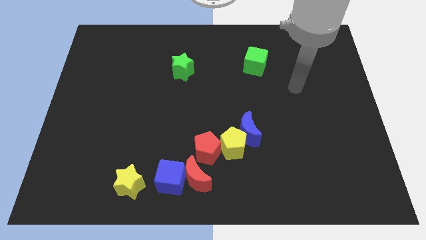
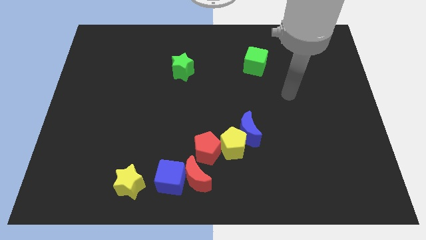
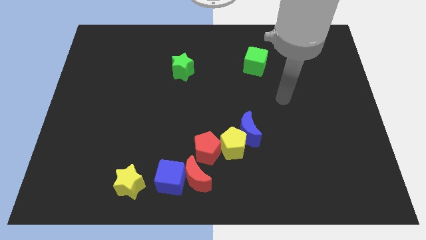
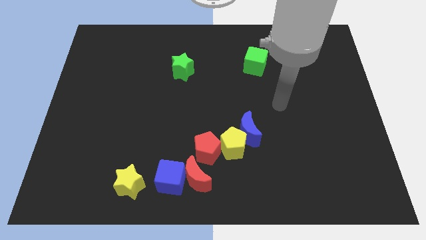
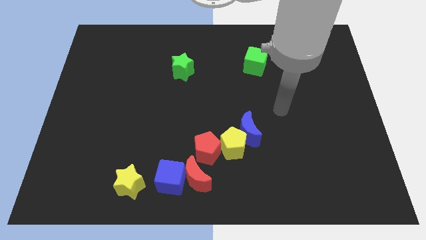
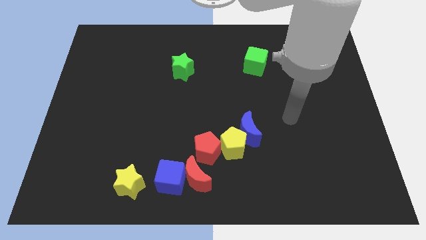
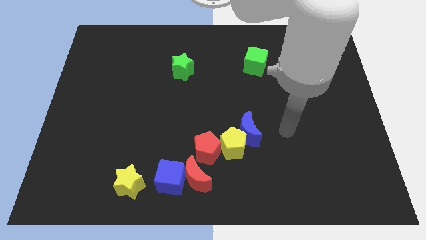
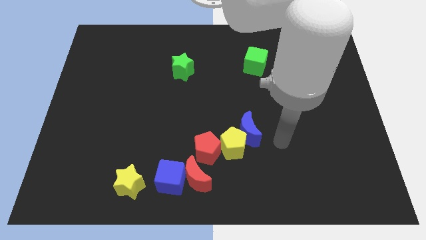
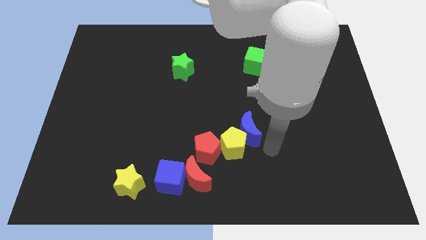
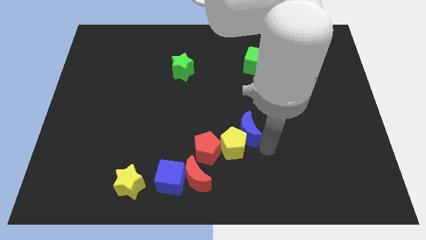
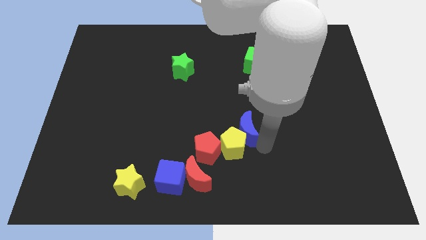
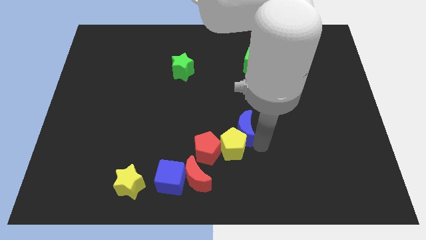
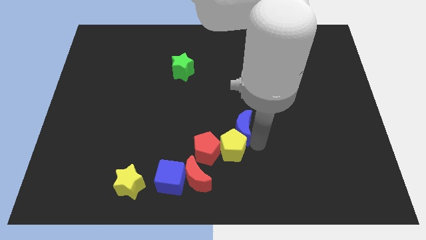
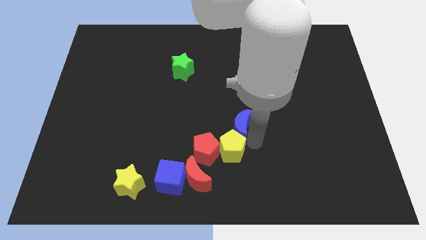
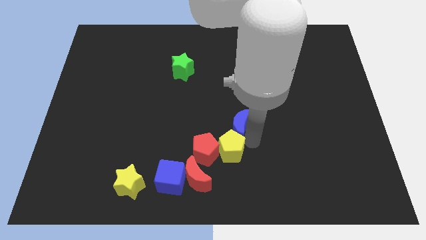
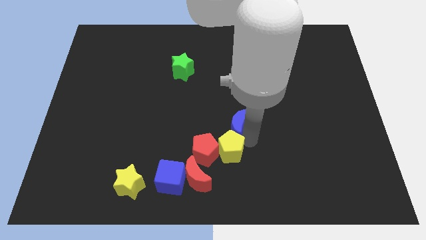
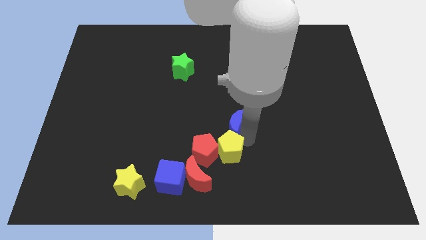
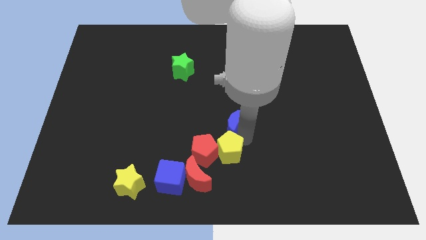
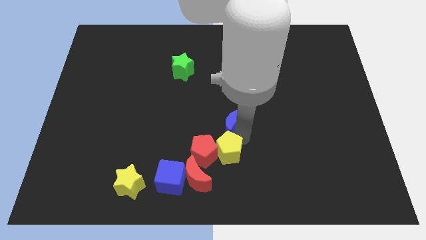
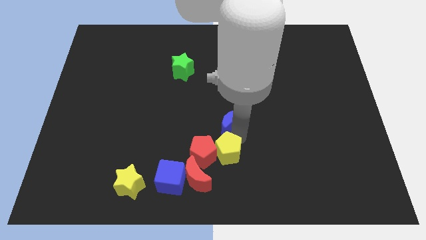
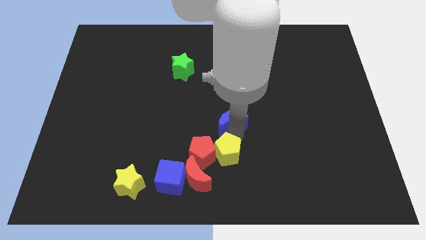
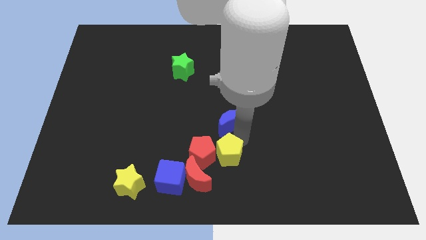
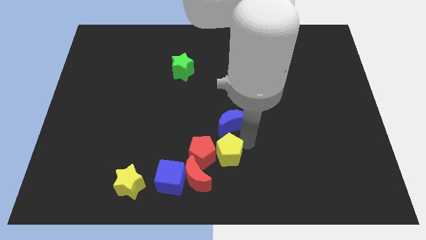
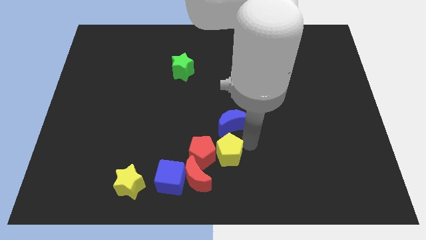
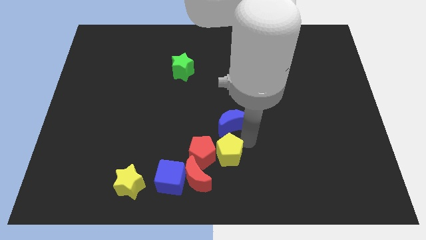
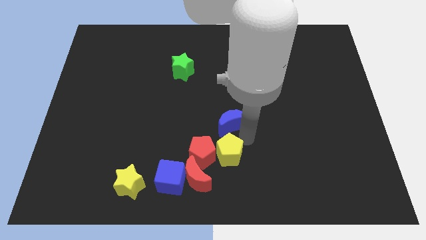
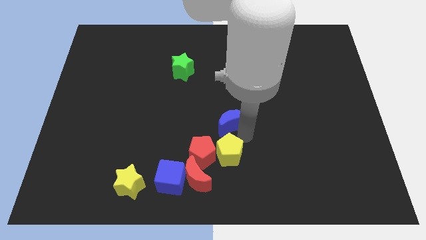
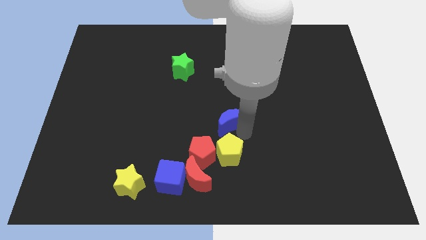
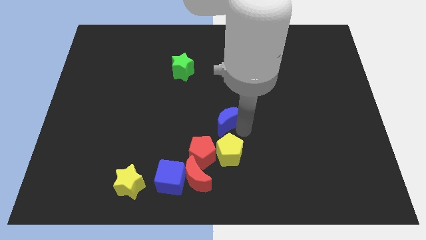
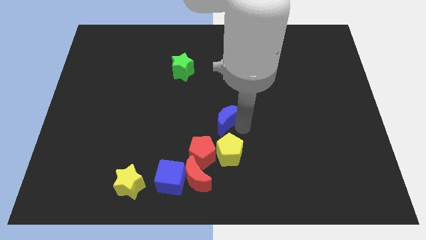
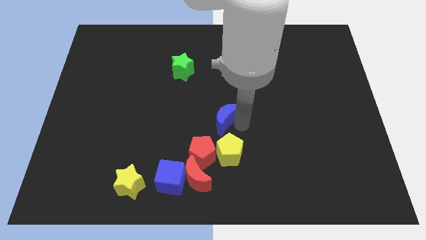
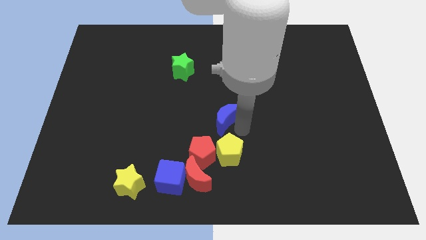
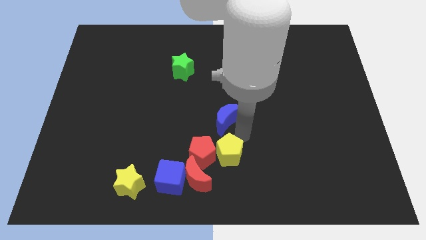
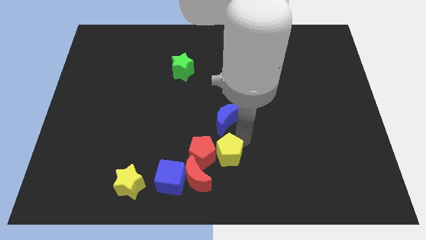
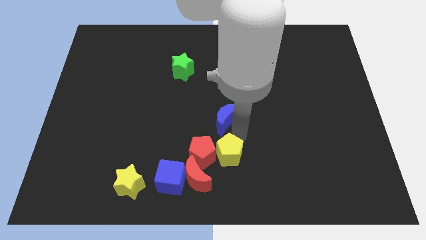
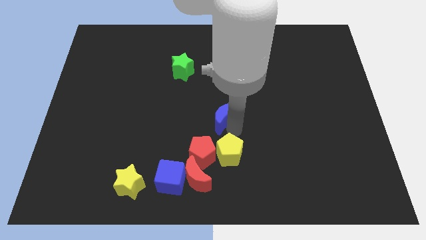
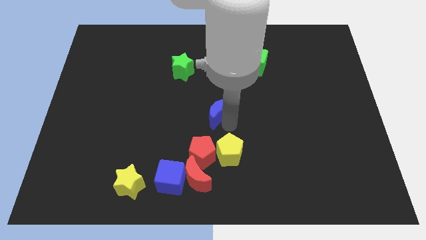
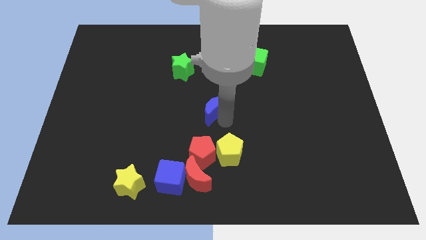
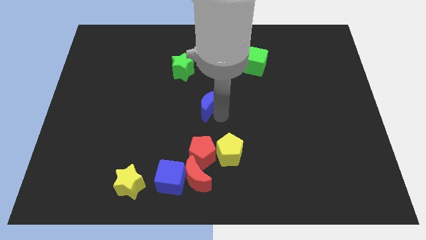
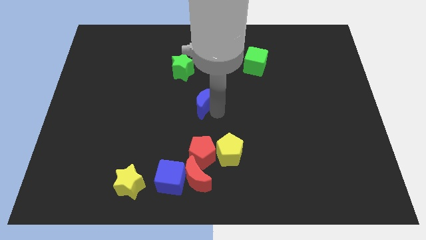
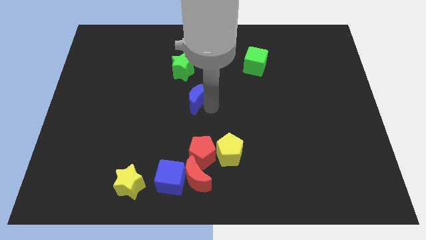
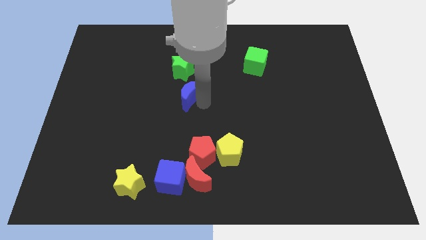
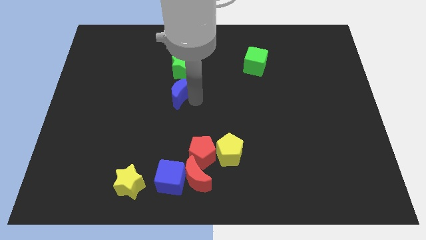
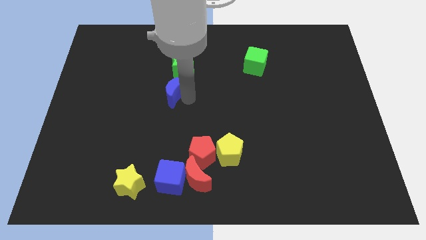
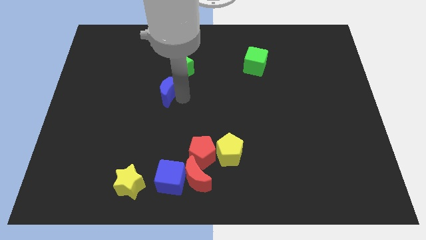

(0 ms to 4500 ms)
push the blue moon diagonally upwards and to the left

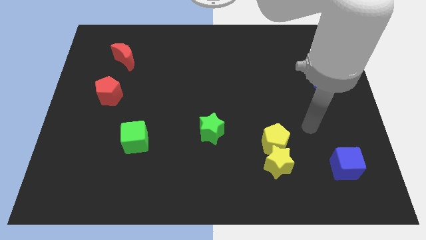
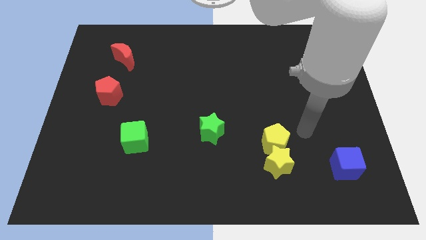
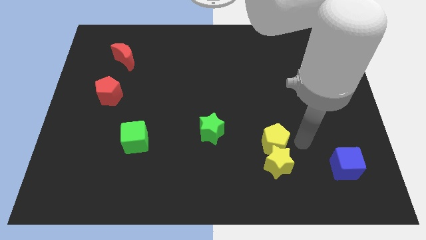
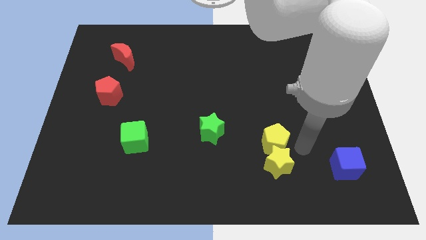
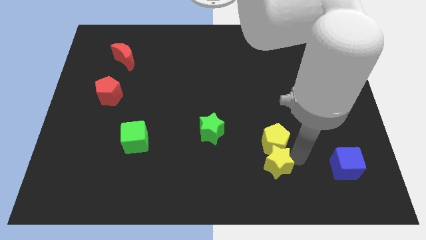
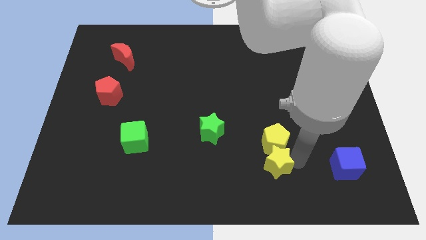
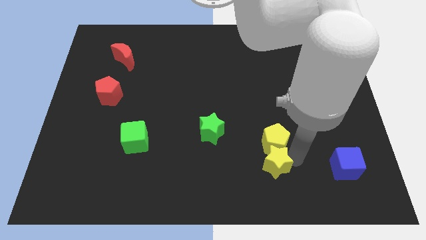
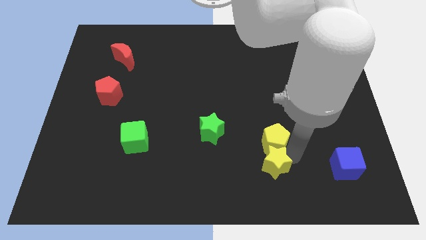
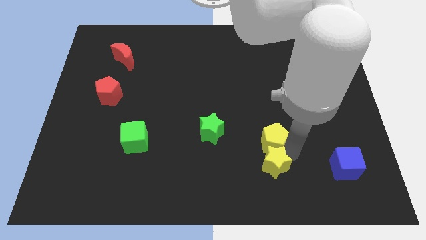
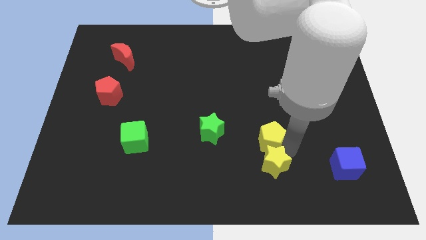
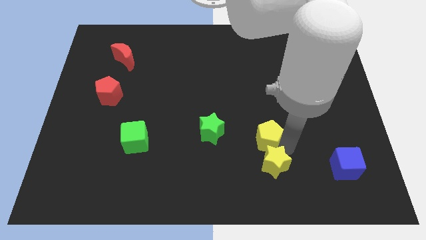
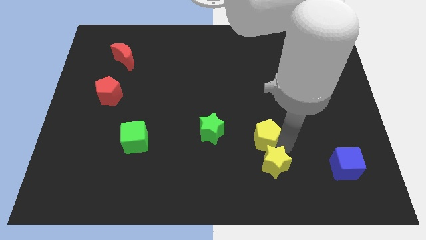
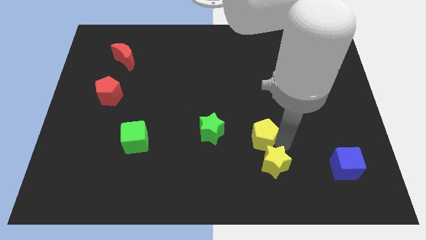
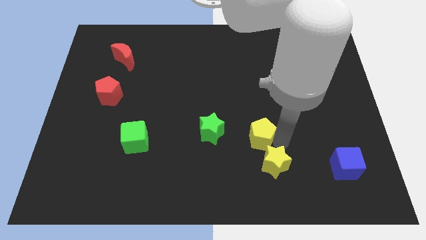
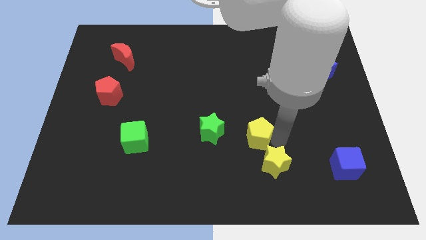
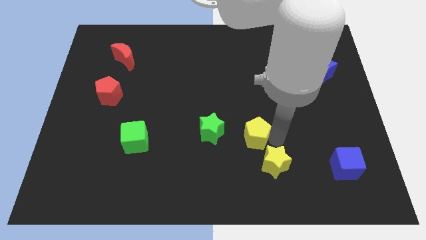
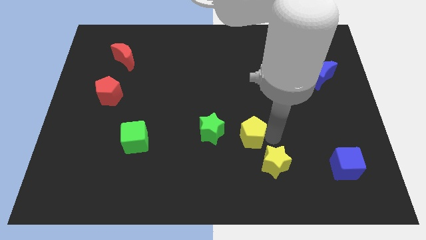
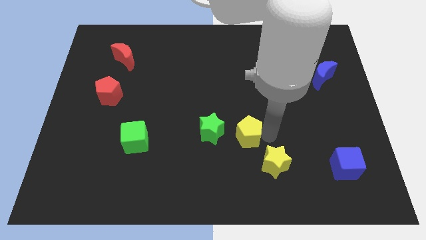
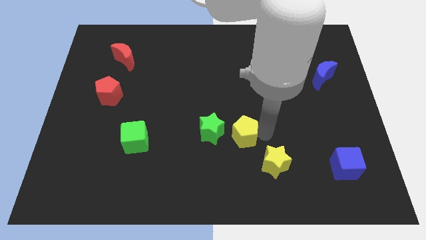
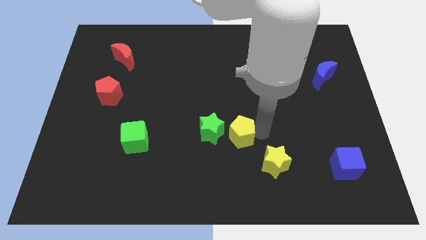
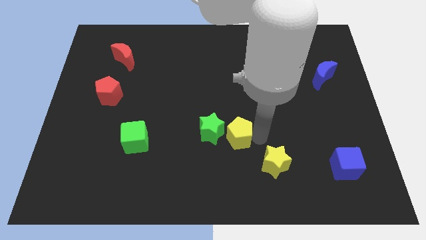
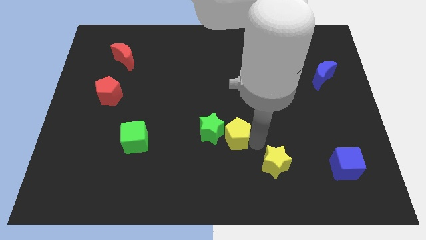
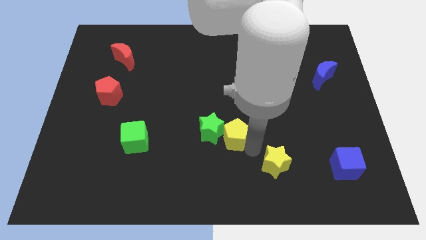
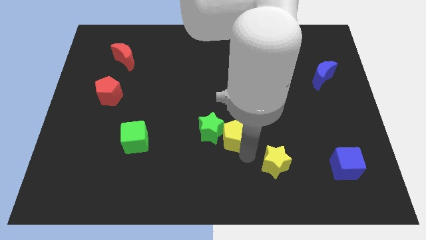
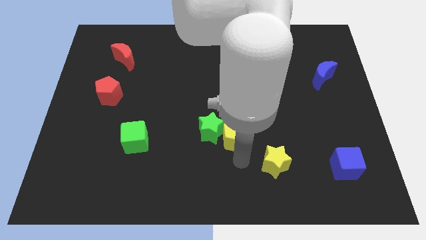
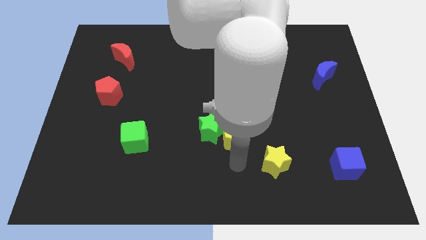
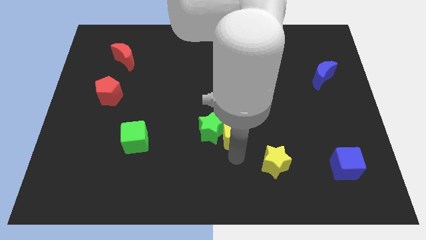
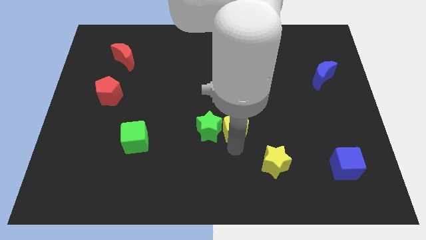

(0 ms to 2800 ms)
slightly move the yellow pentagon up and then left

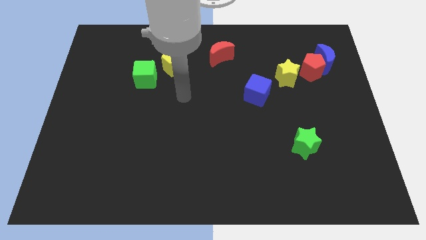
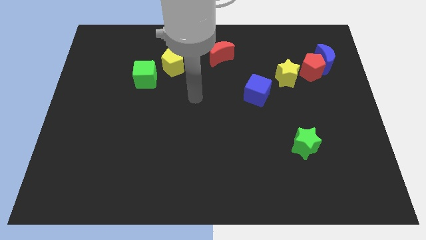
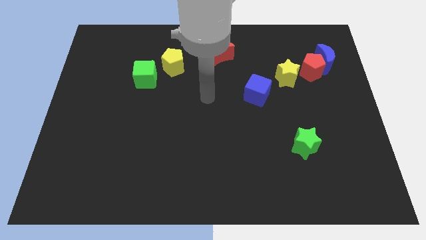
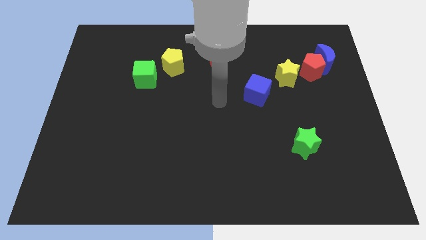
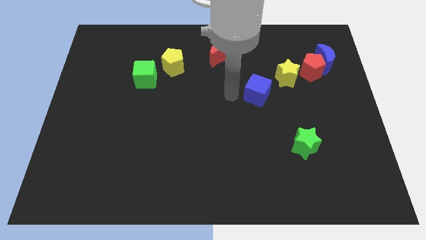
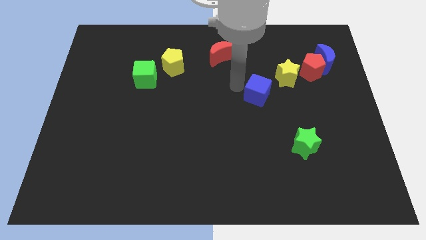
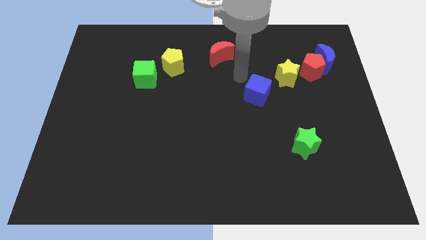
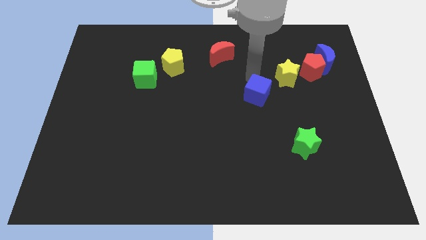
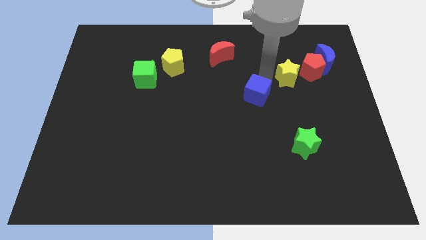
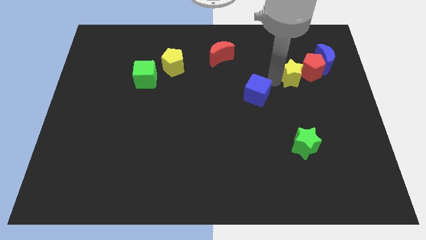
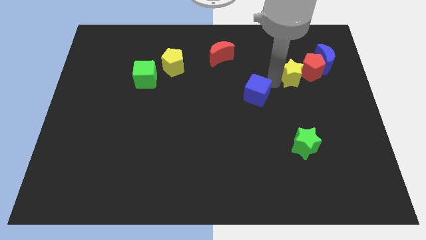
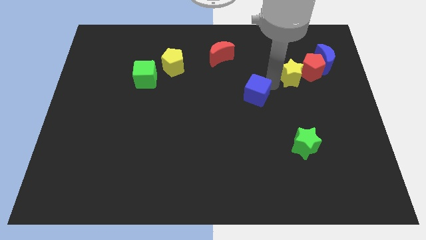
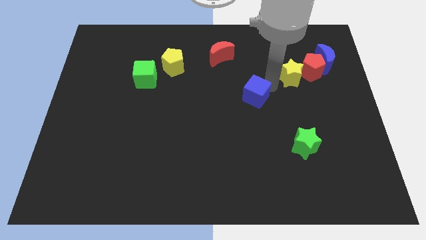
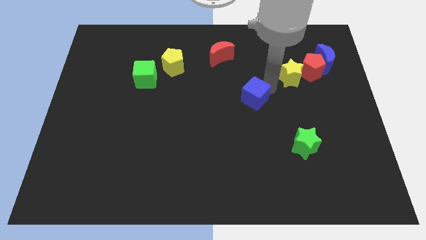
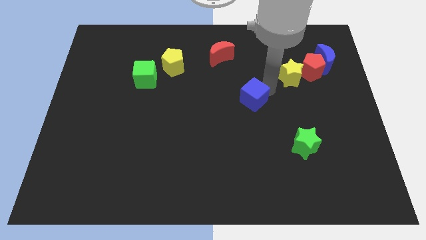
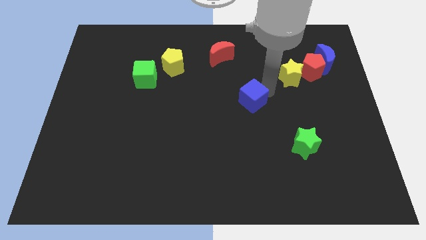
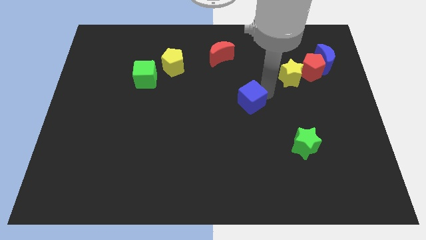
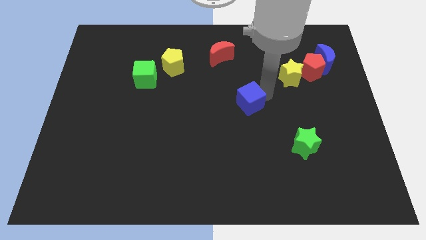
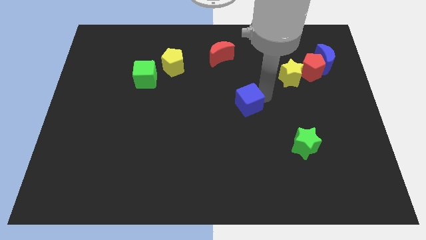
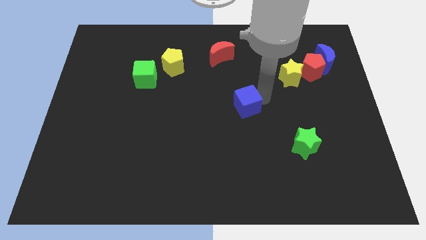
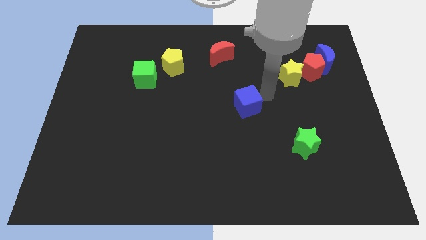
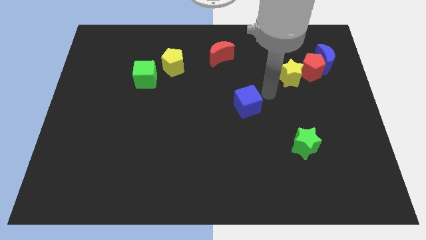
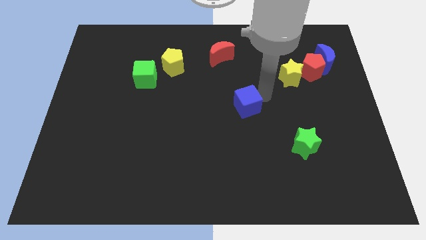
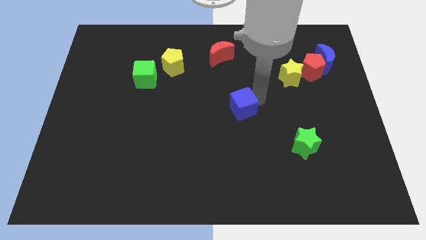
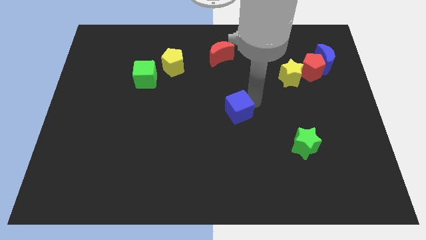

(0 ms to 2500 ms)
slide the blue cube a little bit down and then to the left
